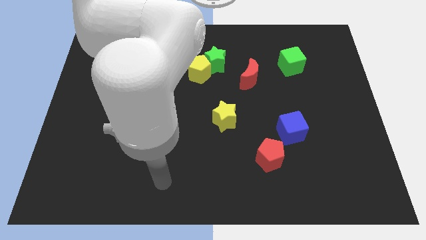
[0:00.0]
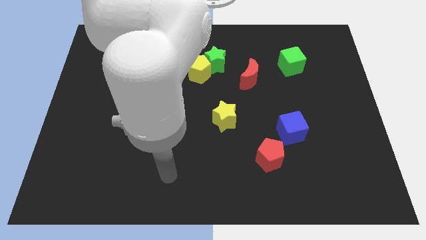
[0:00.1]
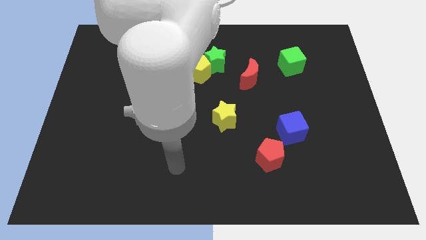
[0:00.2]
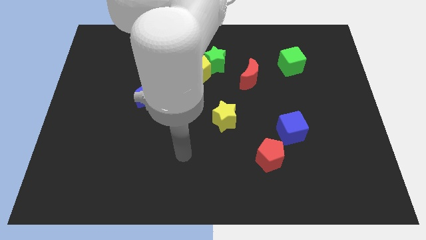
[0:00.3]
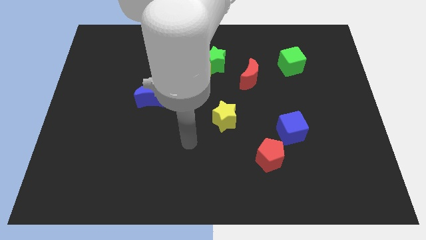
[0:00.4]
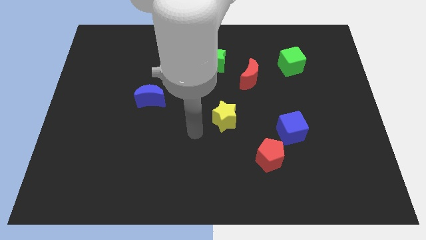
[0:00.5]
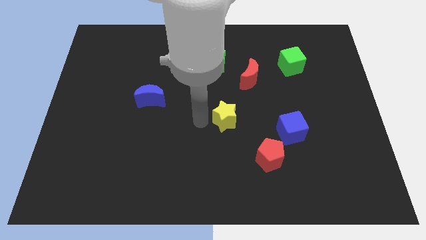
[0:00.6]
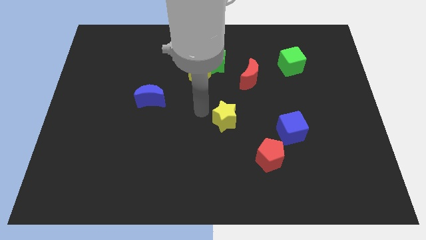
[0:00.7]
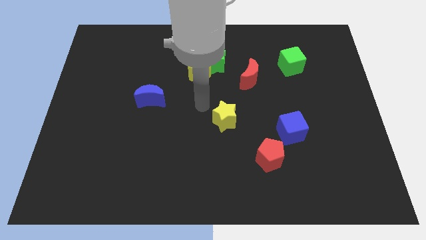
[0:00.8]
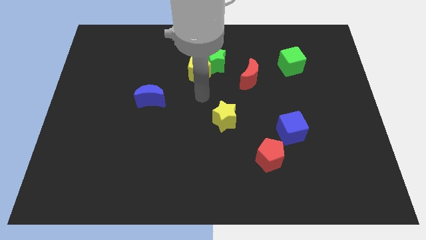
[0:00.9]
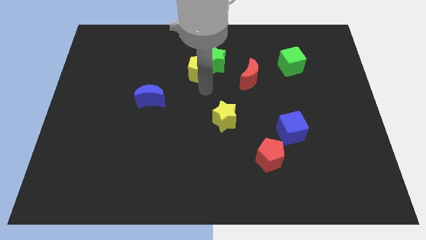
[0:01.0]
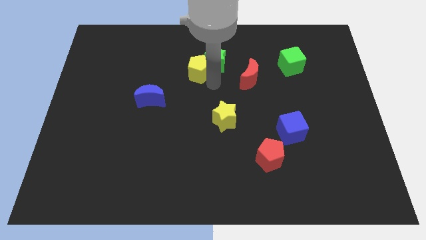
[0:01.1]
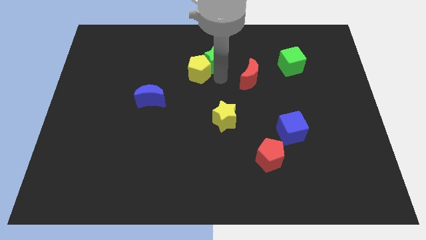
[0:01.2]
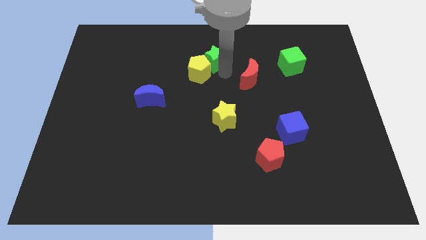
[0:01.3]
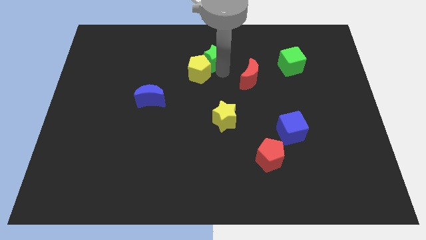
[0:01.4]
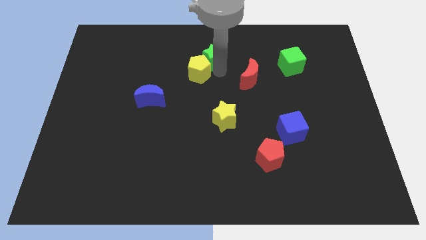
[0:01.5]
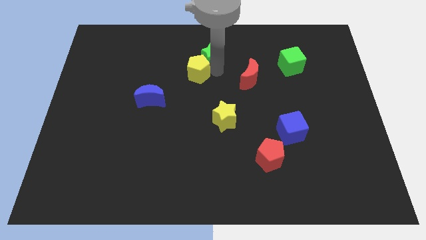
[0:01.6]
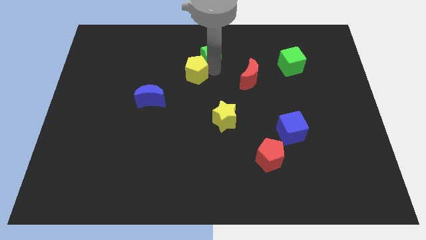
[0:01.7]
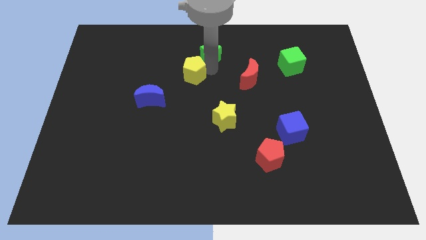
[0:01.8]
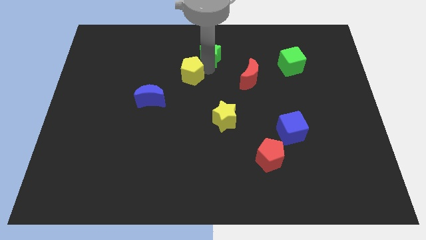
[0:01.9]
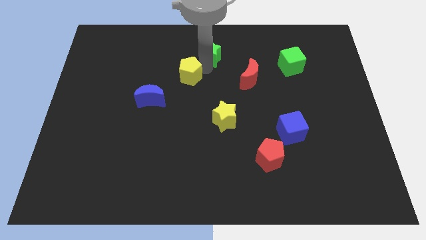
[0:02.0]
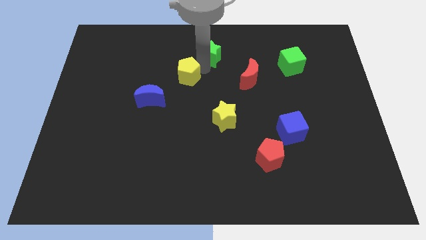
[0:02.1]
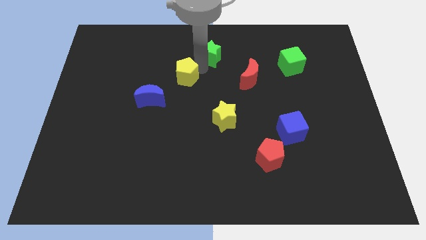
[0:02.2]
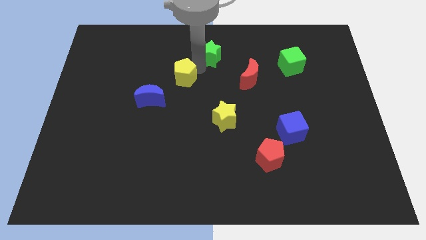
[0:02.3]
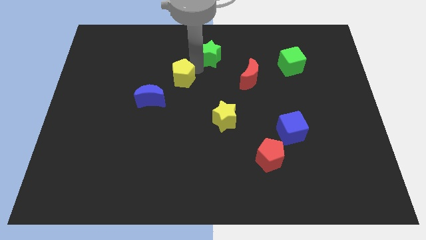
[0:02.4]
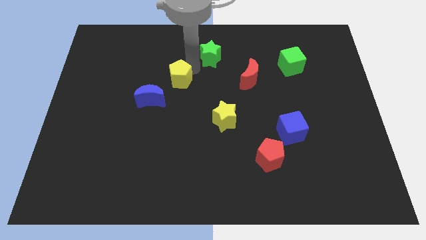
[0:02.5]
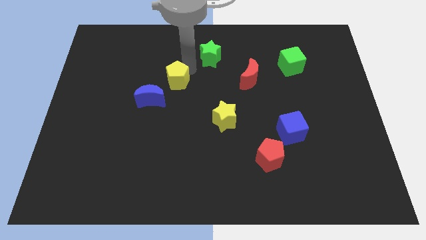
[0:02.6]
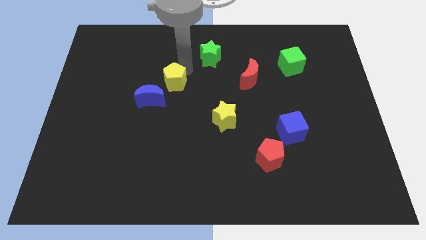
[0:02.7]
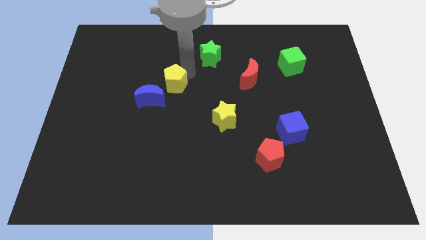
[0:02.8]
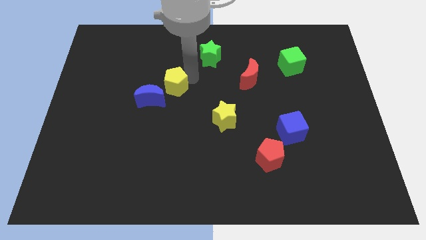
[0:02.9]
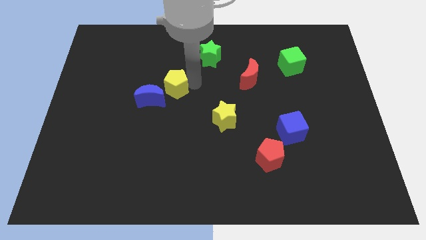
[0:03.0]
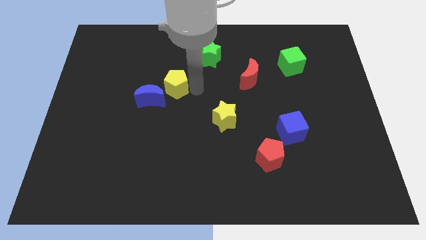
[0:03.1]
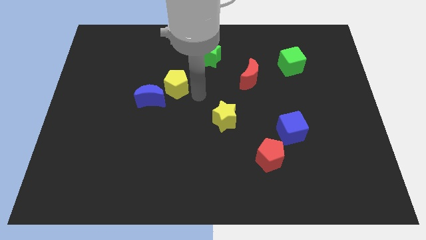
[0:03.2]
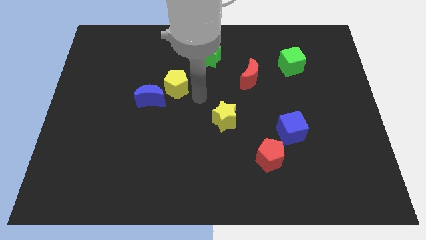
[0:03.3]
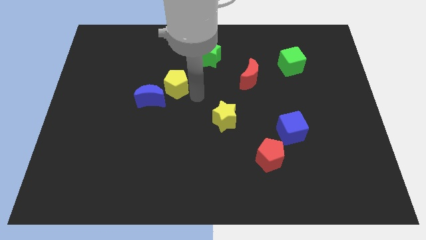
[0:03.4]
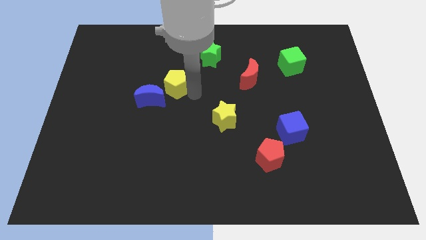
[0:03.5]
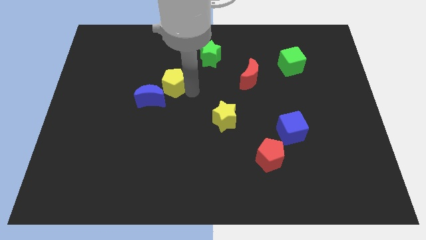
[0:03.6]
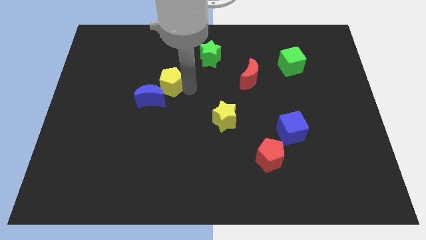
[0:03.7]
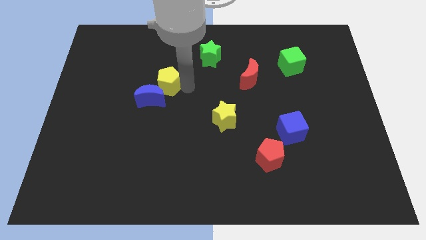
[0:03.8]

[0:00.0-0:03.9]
slide the yellow pentagon a little bit to the left

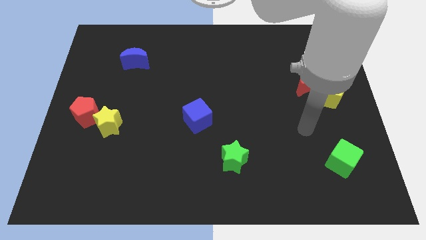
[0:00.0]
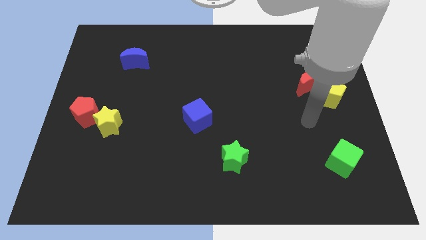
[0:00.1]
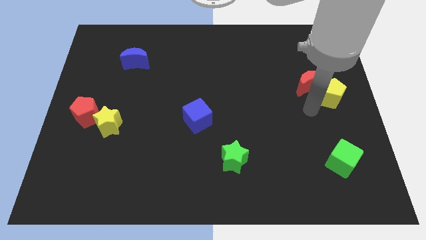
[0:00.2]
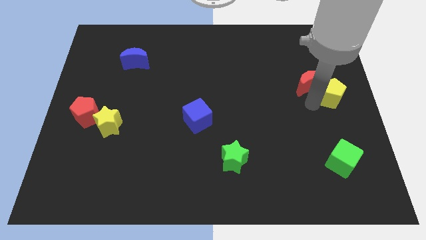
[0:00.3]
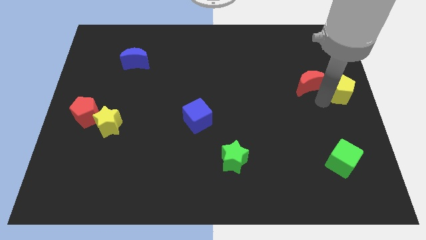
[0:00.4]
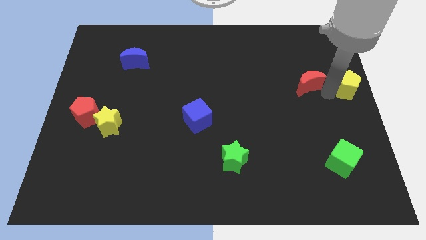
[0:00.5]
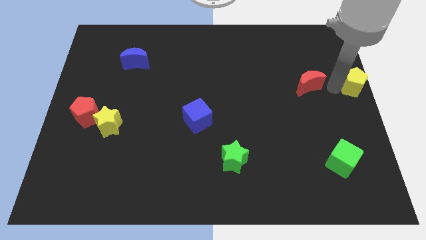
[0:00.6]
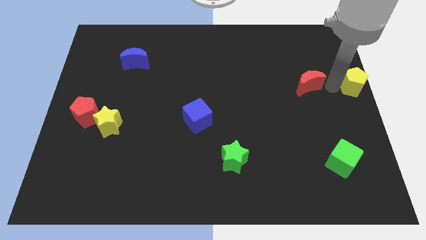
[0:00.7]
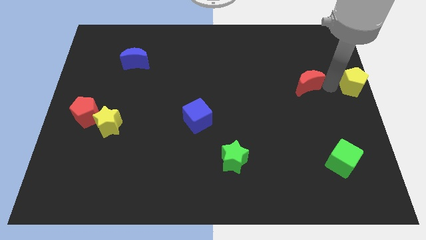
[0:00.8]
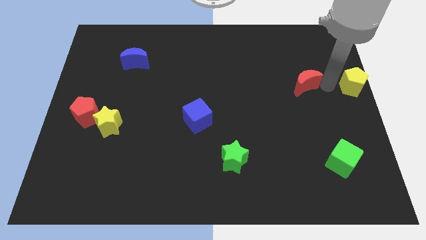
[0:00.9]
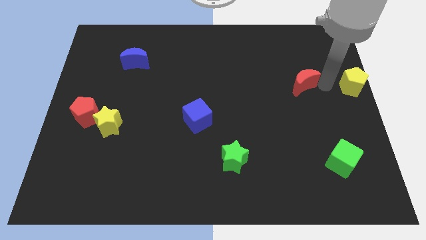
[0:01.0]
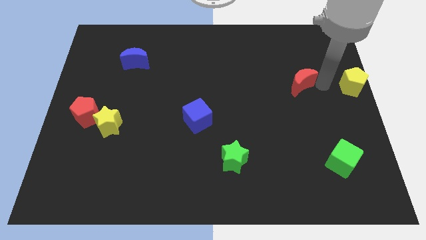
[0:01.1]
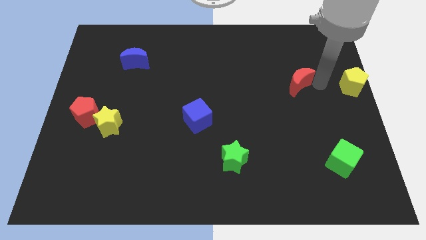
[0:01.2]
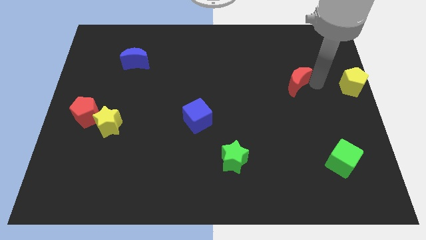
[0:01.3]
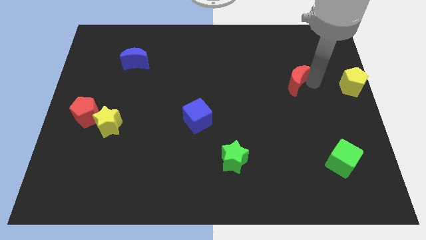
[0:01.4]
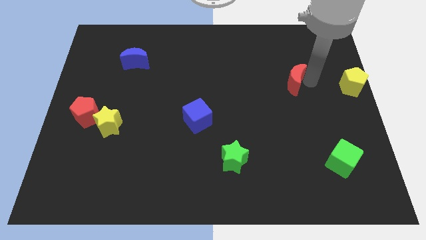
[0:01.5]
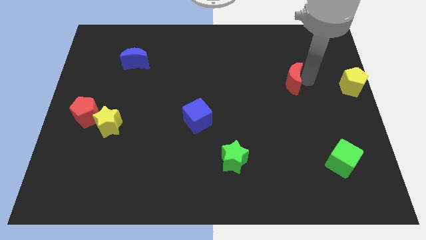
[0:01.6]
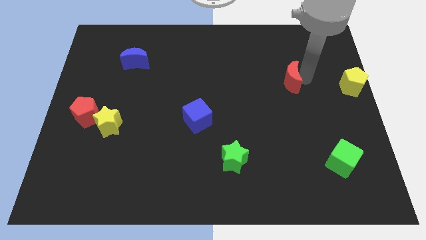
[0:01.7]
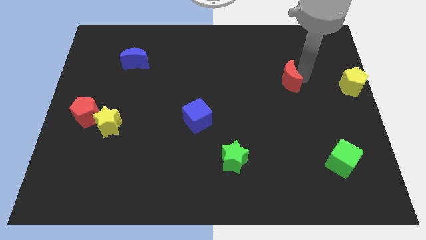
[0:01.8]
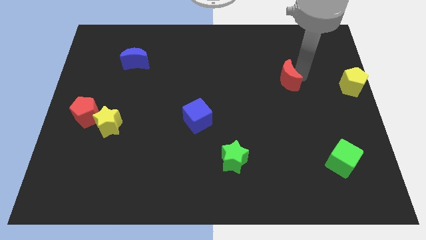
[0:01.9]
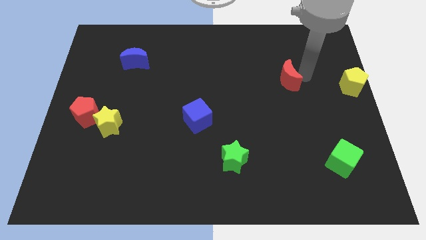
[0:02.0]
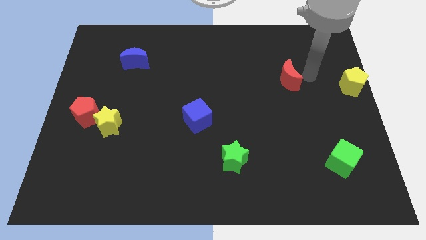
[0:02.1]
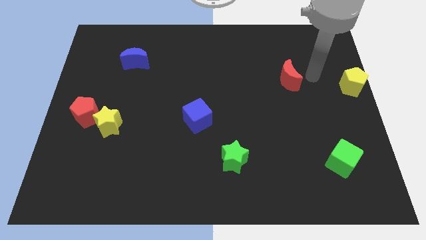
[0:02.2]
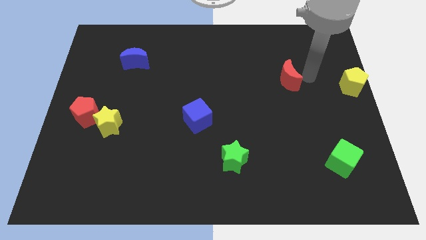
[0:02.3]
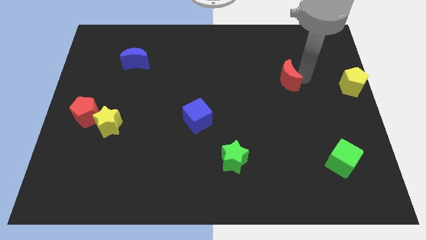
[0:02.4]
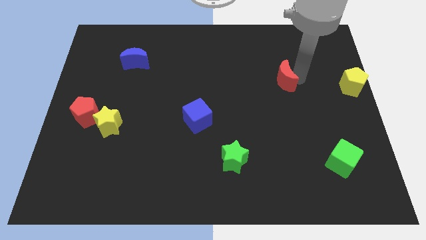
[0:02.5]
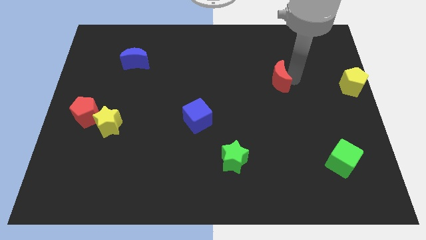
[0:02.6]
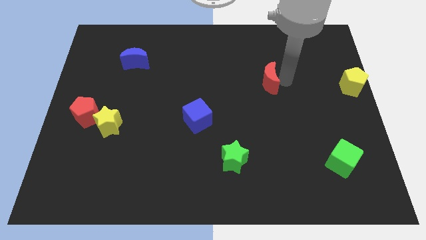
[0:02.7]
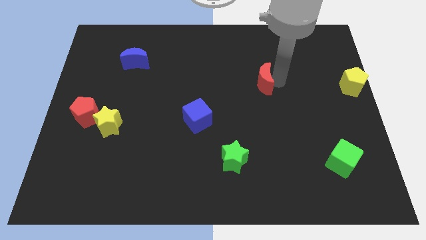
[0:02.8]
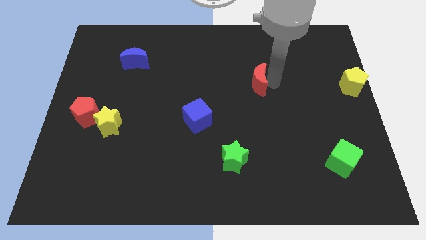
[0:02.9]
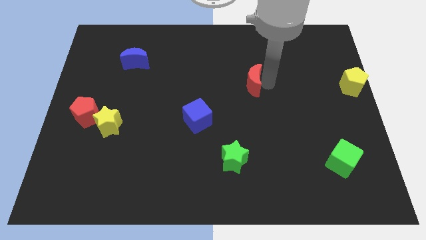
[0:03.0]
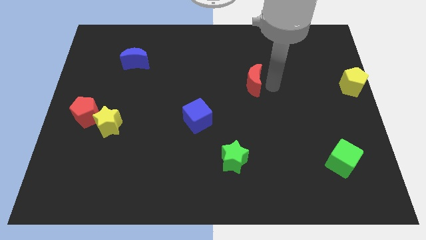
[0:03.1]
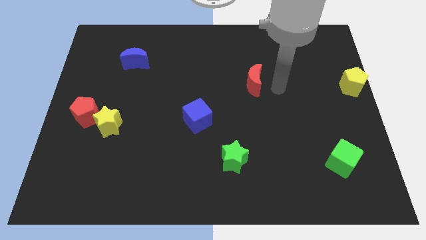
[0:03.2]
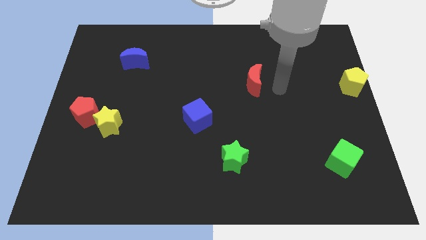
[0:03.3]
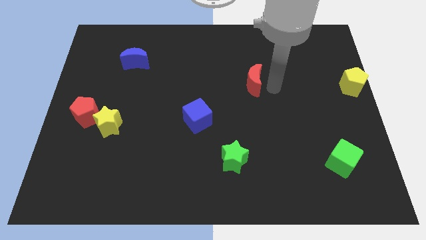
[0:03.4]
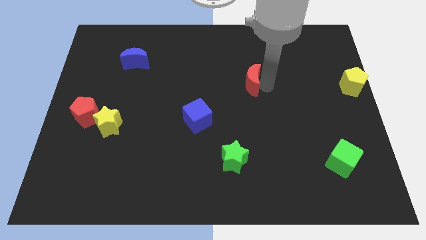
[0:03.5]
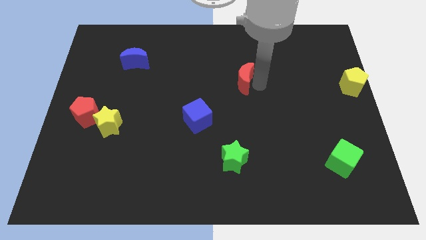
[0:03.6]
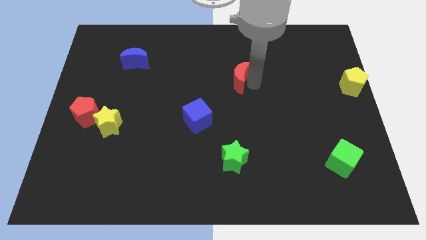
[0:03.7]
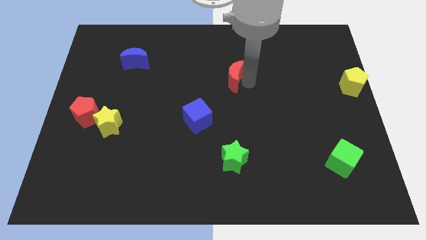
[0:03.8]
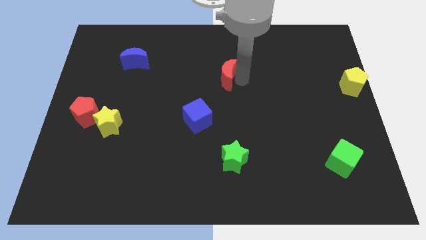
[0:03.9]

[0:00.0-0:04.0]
push the red moon left
